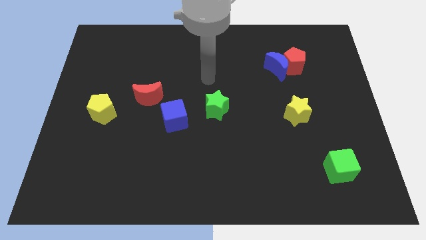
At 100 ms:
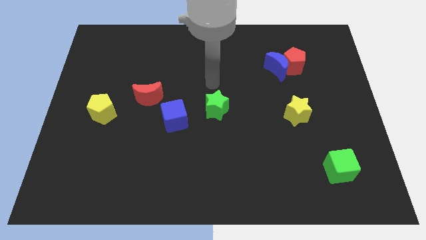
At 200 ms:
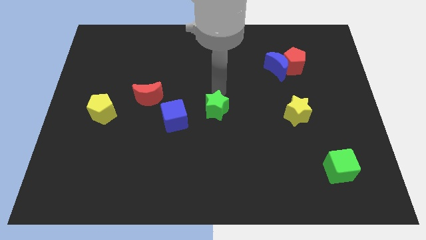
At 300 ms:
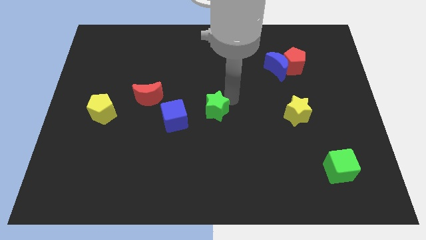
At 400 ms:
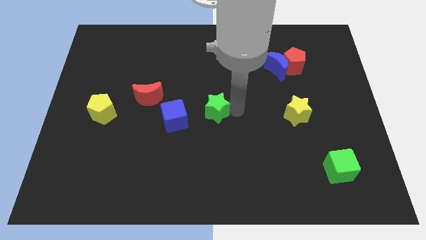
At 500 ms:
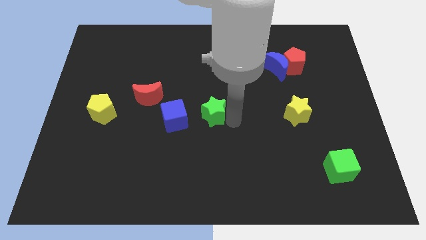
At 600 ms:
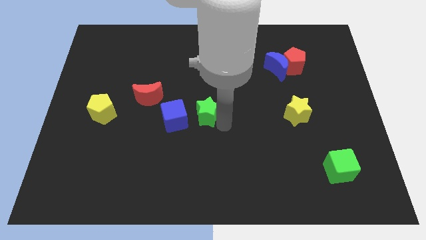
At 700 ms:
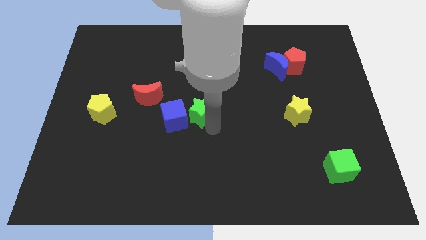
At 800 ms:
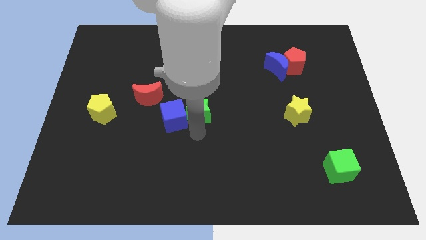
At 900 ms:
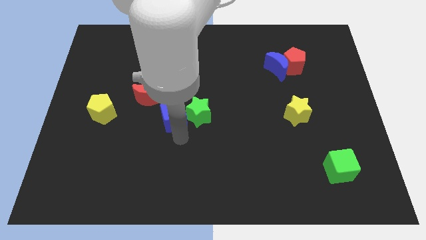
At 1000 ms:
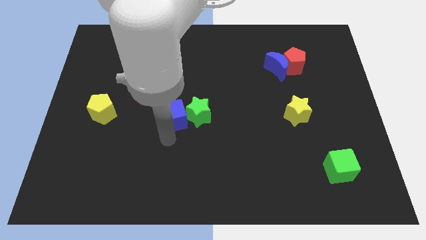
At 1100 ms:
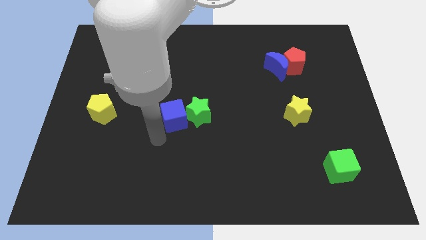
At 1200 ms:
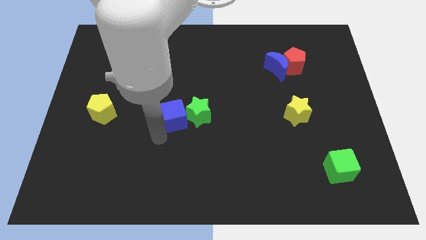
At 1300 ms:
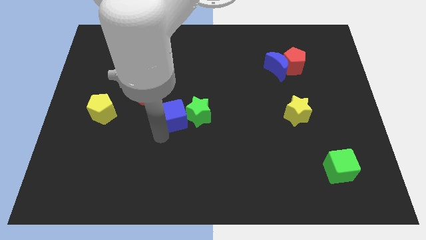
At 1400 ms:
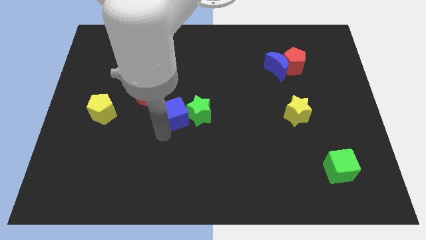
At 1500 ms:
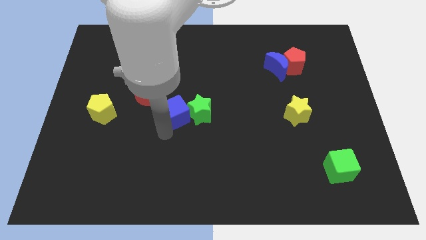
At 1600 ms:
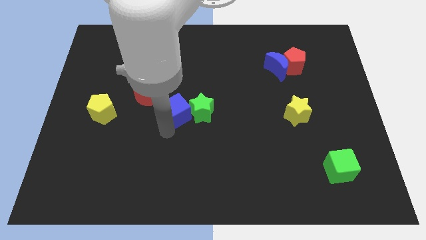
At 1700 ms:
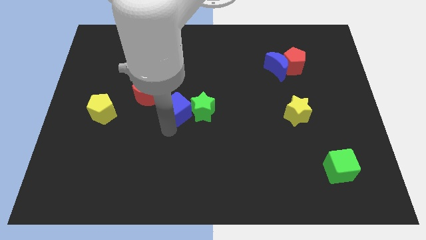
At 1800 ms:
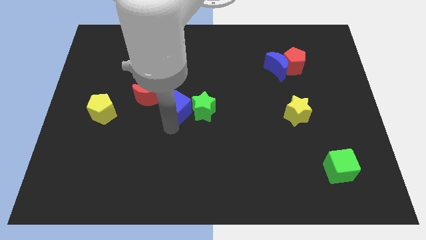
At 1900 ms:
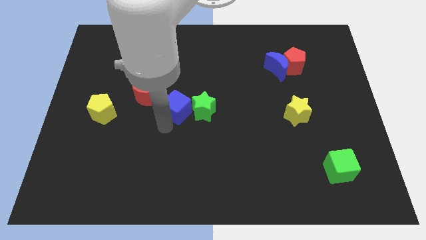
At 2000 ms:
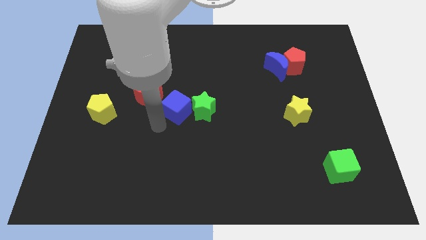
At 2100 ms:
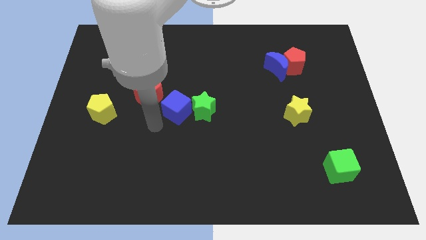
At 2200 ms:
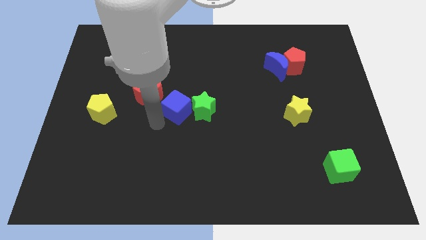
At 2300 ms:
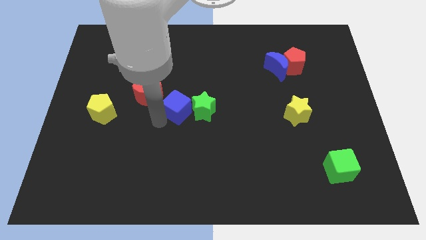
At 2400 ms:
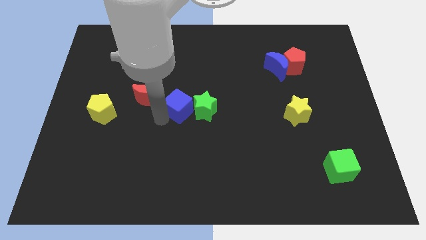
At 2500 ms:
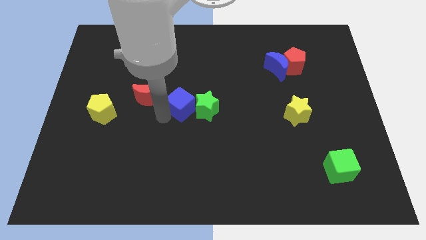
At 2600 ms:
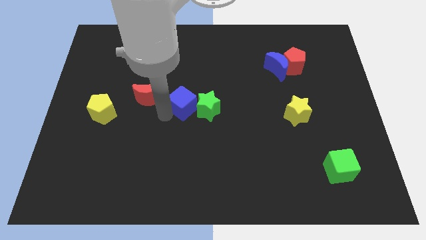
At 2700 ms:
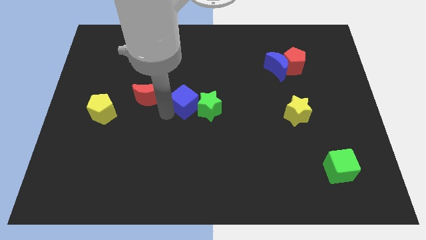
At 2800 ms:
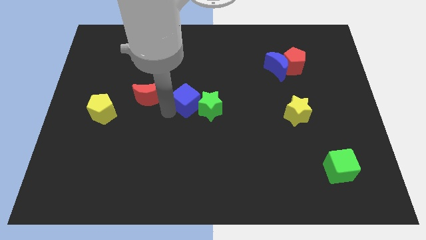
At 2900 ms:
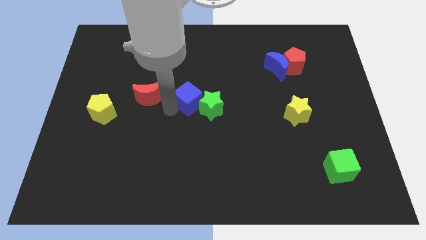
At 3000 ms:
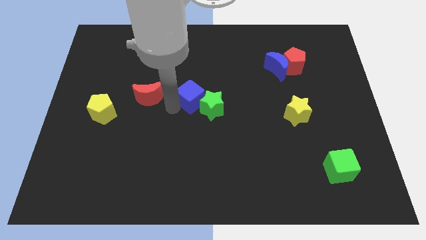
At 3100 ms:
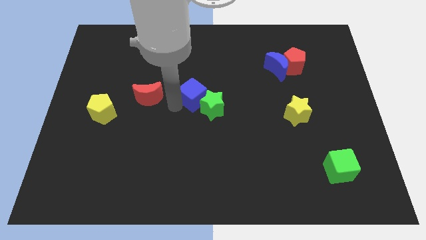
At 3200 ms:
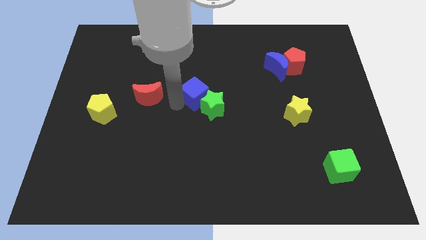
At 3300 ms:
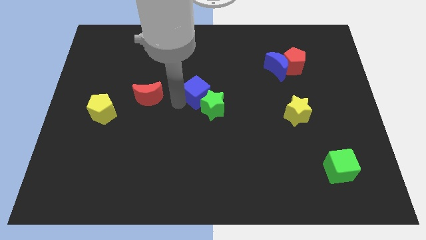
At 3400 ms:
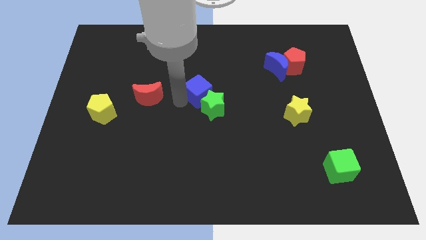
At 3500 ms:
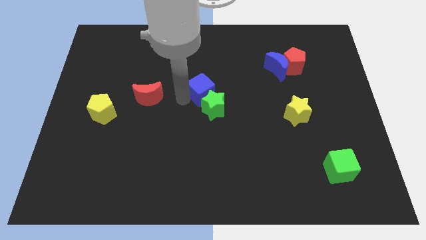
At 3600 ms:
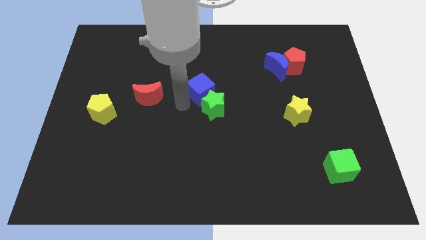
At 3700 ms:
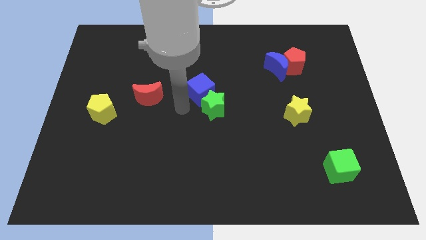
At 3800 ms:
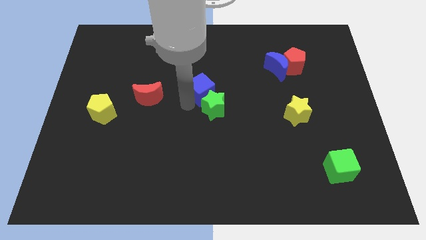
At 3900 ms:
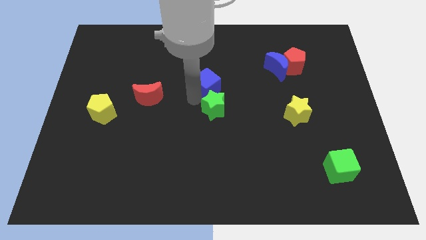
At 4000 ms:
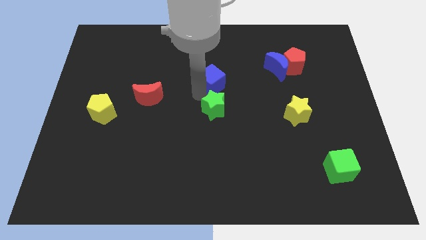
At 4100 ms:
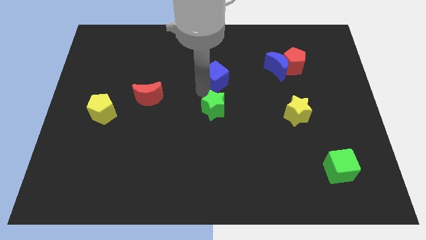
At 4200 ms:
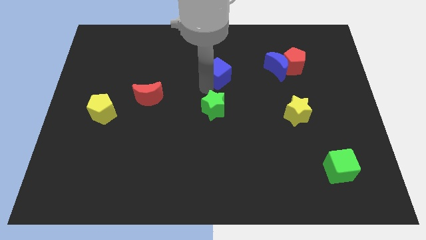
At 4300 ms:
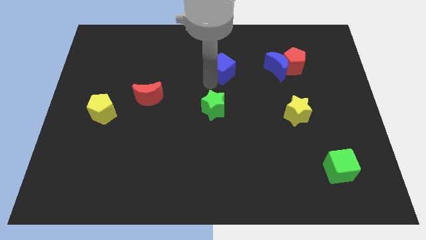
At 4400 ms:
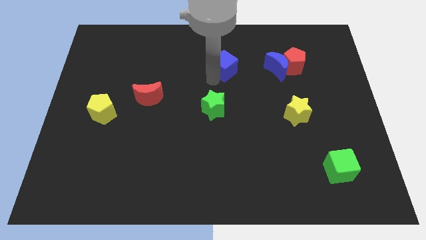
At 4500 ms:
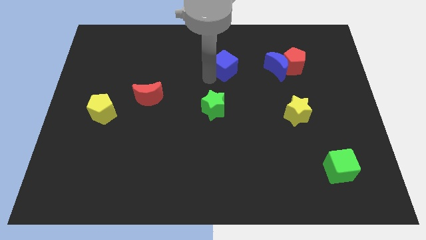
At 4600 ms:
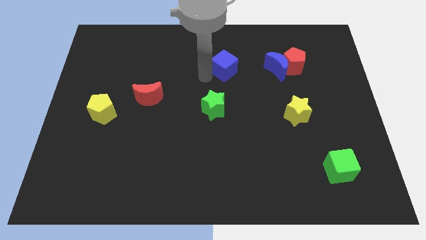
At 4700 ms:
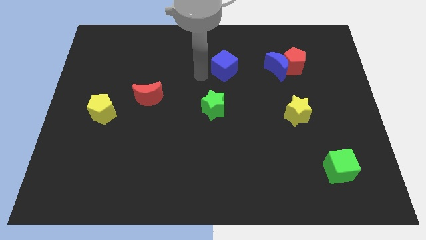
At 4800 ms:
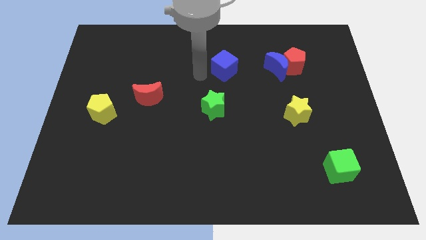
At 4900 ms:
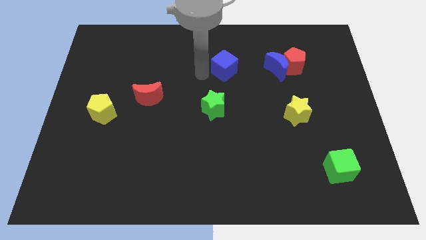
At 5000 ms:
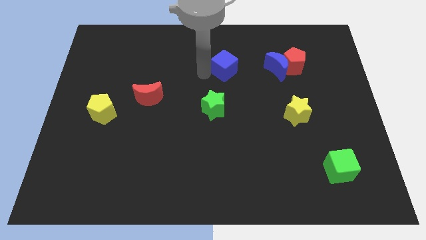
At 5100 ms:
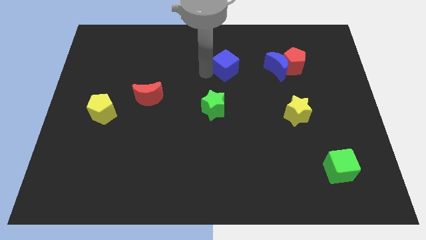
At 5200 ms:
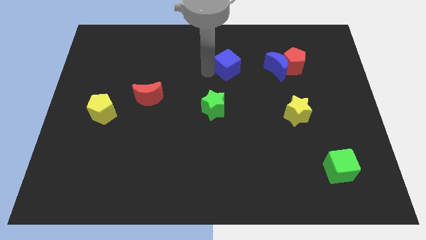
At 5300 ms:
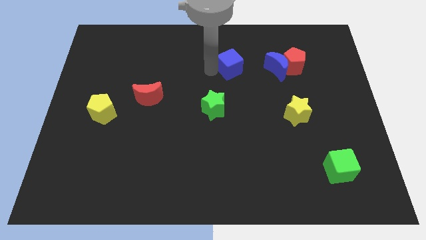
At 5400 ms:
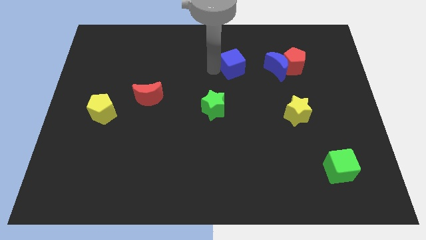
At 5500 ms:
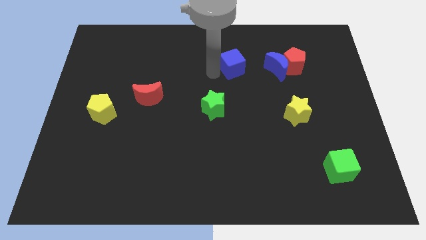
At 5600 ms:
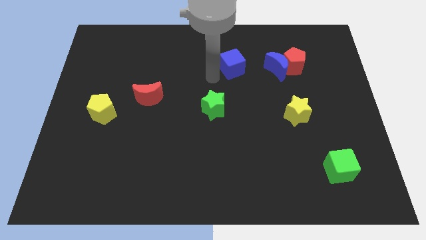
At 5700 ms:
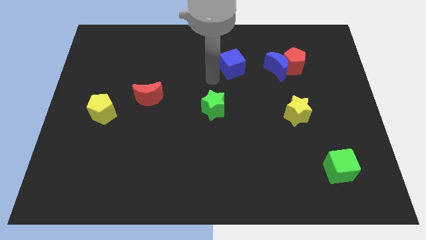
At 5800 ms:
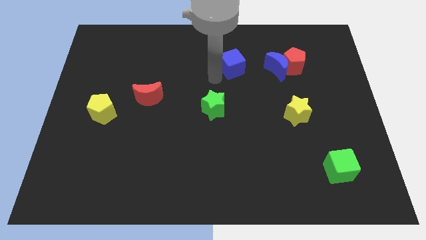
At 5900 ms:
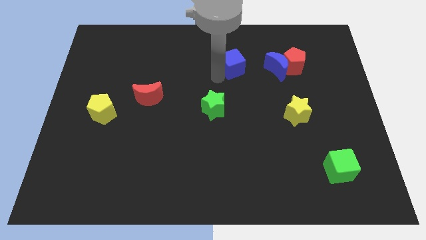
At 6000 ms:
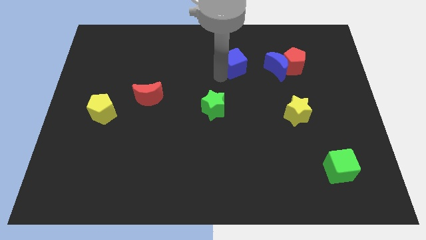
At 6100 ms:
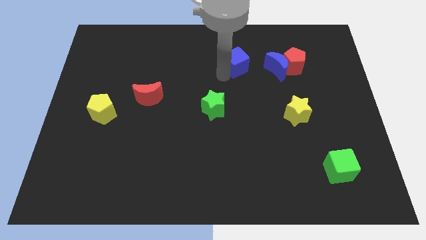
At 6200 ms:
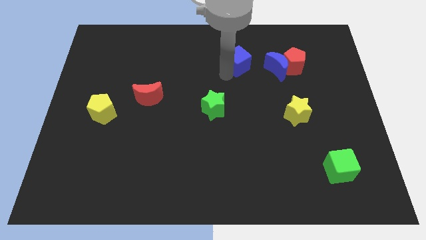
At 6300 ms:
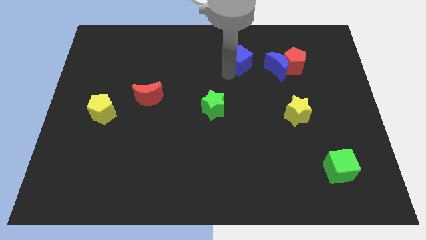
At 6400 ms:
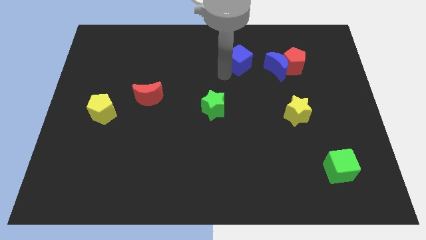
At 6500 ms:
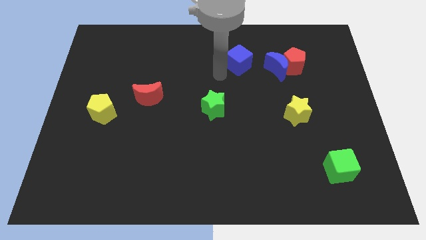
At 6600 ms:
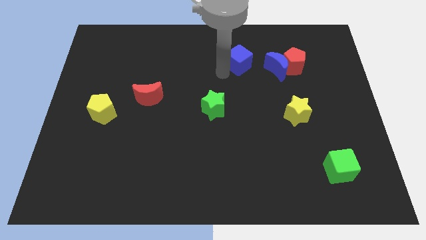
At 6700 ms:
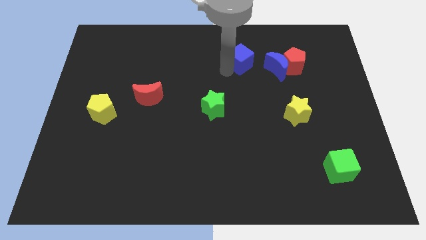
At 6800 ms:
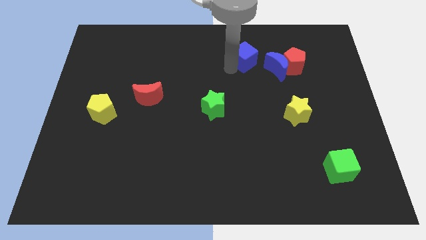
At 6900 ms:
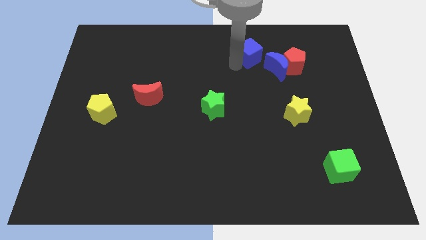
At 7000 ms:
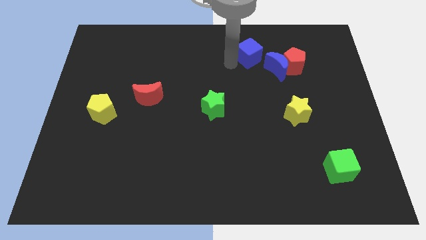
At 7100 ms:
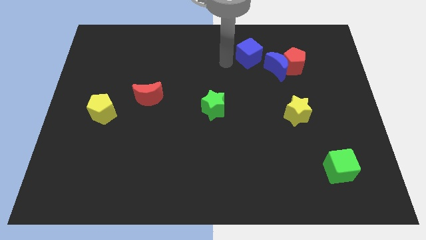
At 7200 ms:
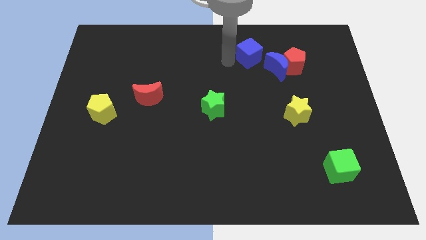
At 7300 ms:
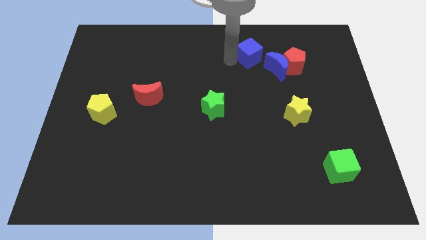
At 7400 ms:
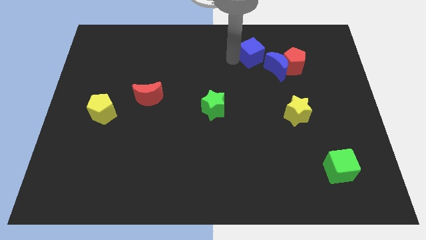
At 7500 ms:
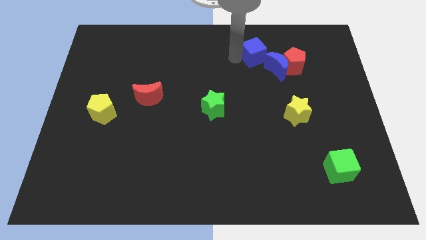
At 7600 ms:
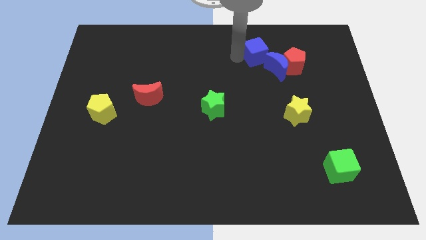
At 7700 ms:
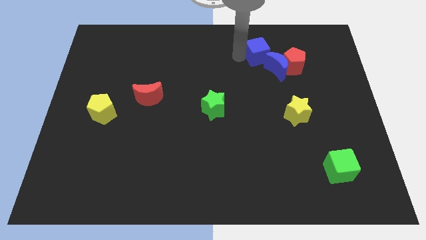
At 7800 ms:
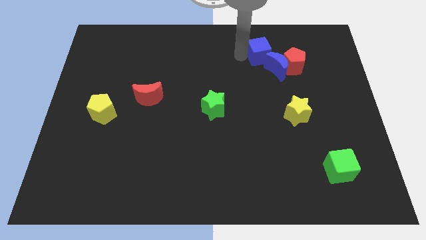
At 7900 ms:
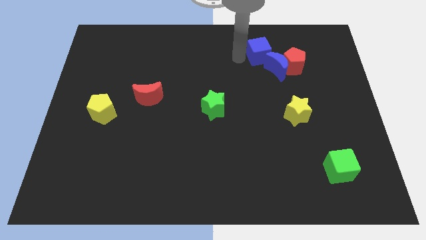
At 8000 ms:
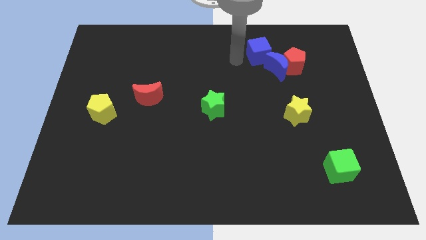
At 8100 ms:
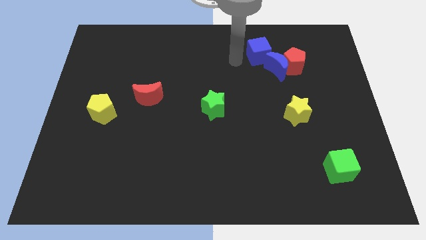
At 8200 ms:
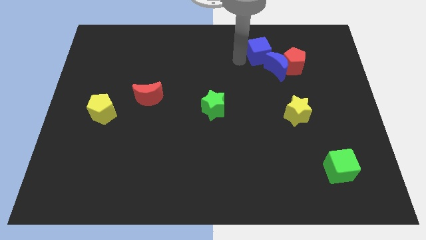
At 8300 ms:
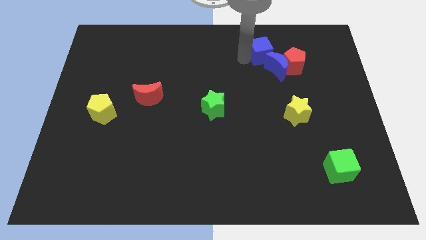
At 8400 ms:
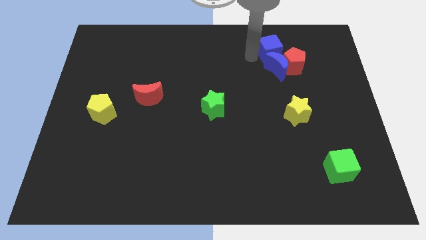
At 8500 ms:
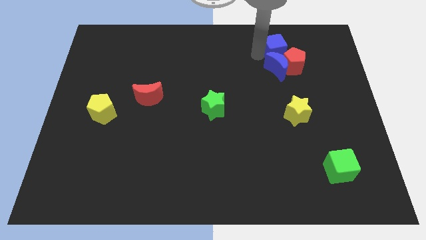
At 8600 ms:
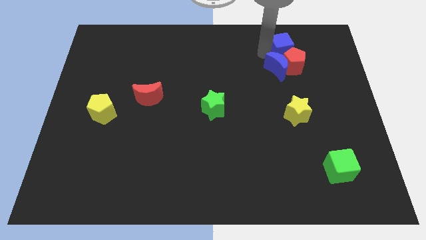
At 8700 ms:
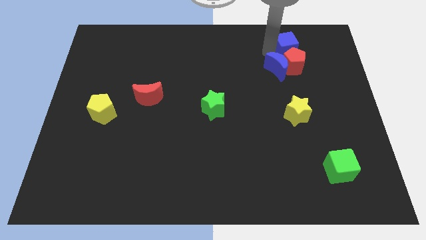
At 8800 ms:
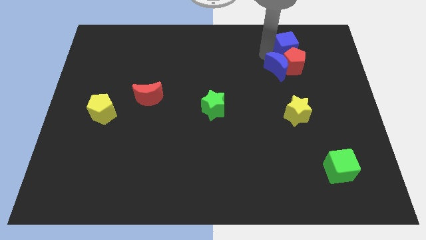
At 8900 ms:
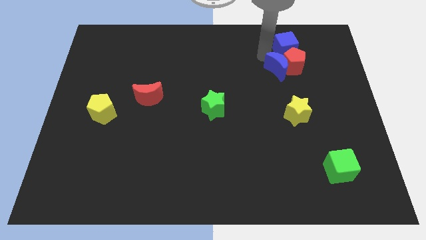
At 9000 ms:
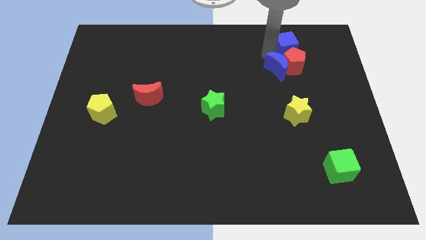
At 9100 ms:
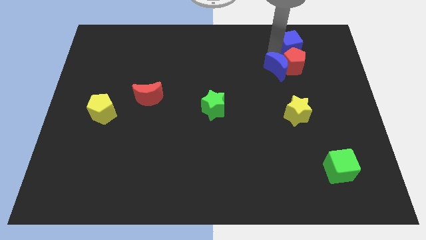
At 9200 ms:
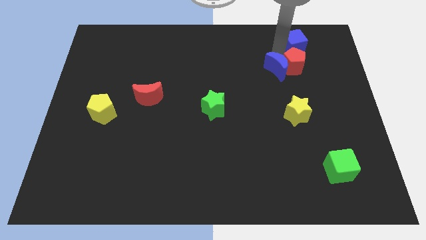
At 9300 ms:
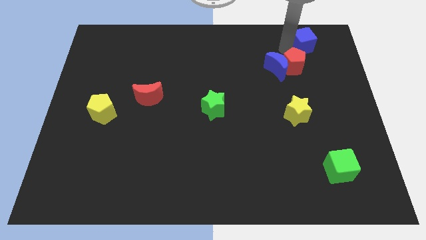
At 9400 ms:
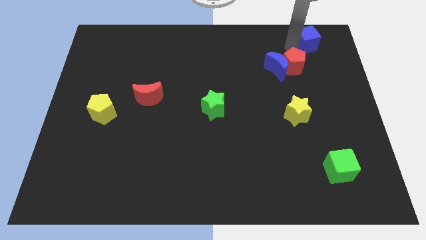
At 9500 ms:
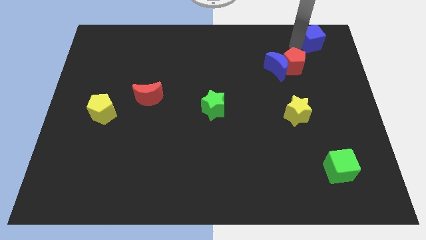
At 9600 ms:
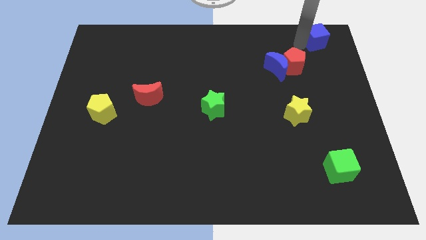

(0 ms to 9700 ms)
slide the blue cube to the upper right corner
